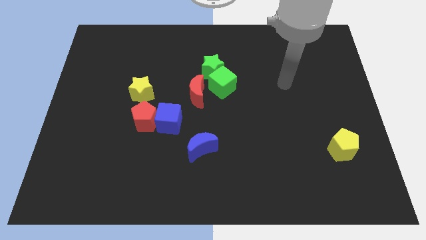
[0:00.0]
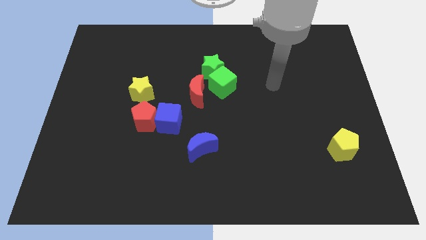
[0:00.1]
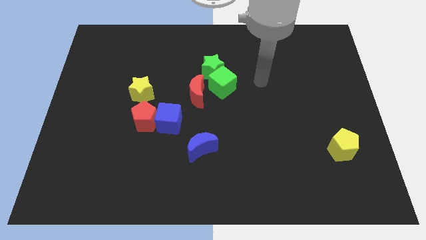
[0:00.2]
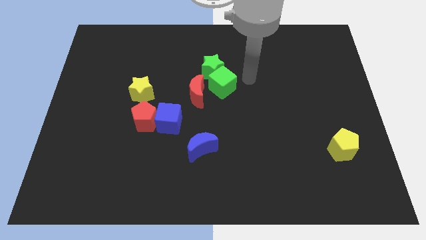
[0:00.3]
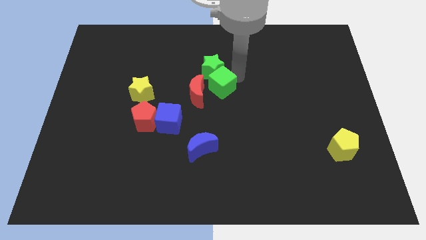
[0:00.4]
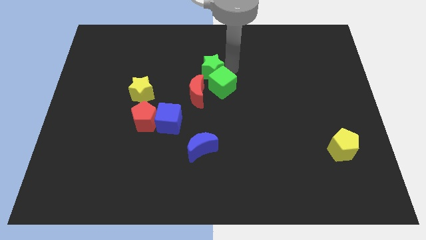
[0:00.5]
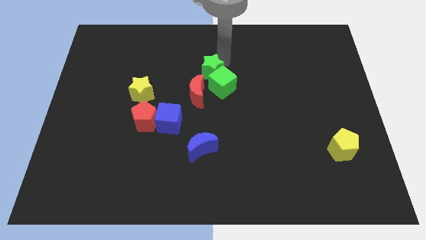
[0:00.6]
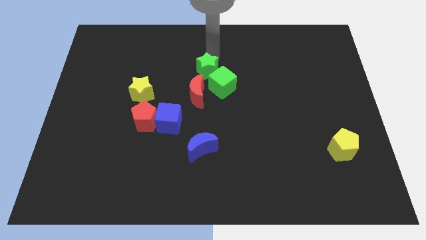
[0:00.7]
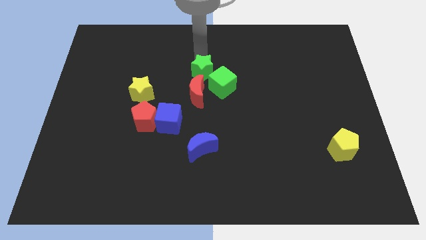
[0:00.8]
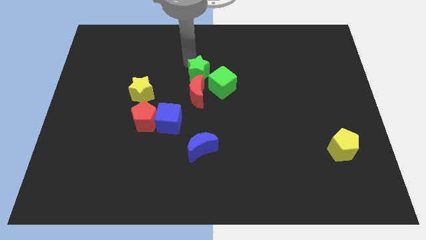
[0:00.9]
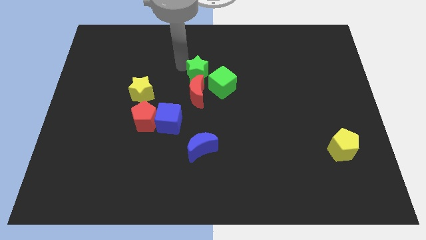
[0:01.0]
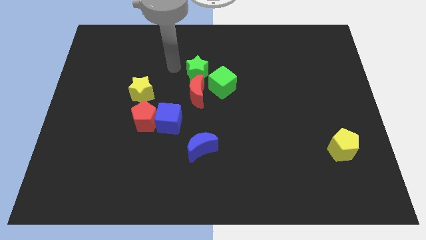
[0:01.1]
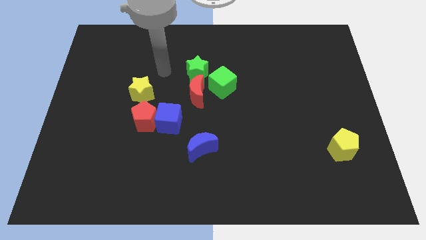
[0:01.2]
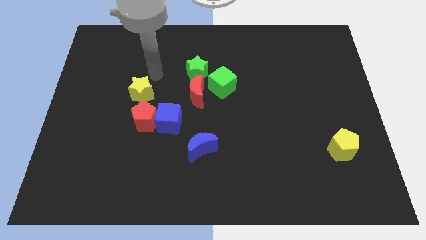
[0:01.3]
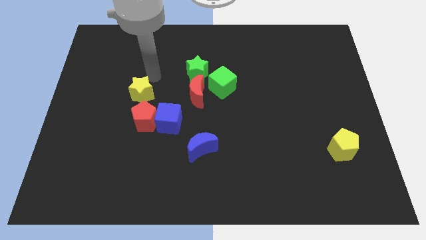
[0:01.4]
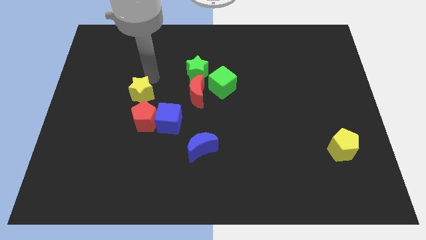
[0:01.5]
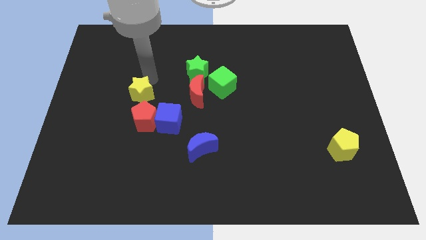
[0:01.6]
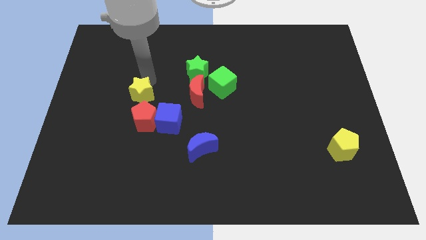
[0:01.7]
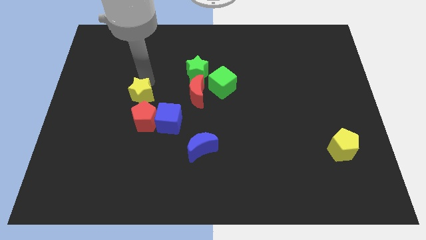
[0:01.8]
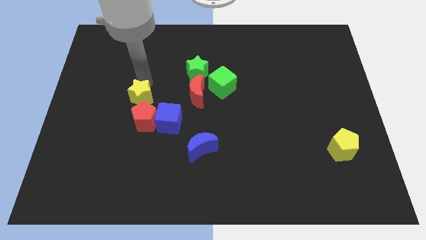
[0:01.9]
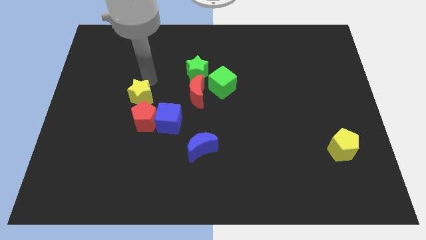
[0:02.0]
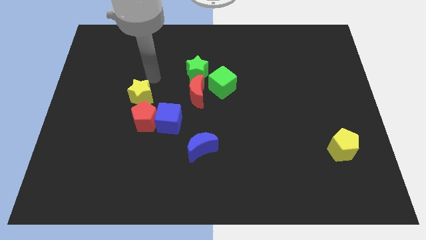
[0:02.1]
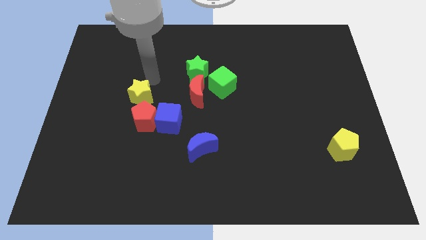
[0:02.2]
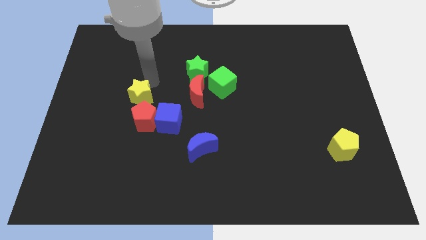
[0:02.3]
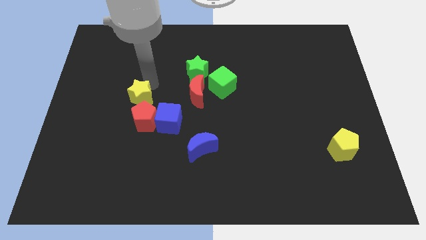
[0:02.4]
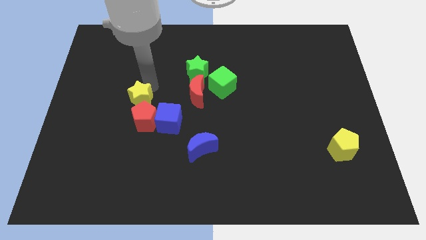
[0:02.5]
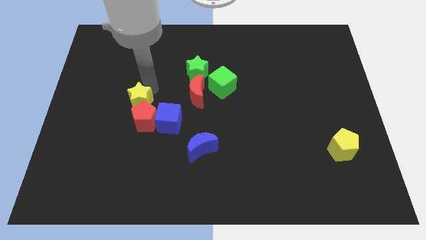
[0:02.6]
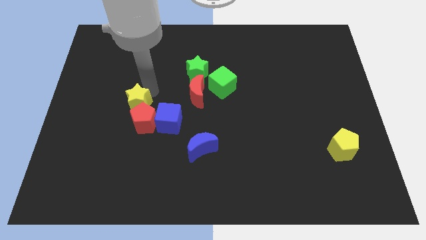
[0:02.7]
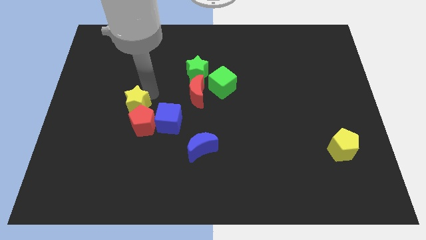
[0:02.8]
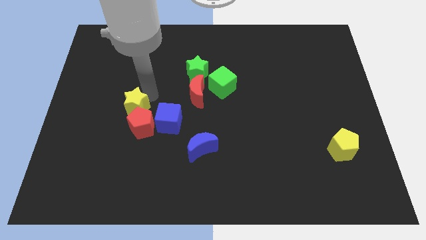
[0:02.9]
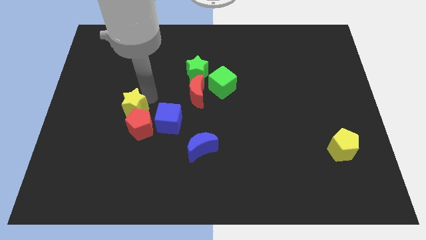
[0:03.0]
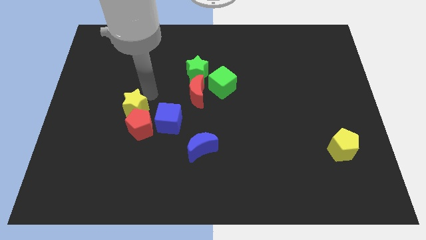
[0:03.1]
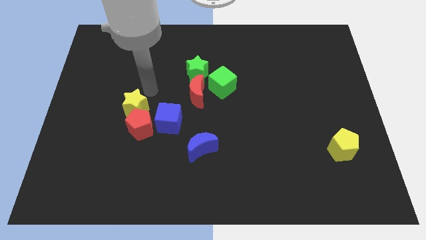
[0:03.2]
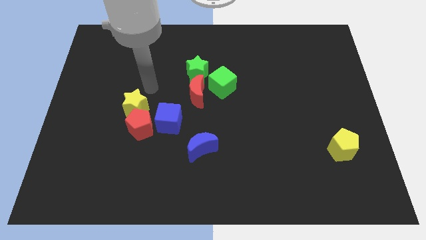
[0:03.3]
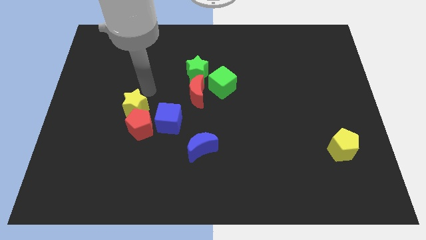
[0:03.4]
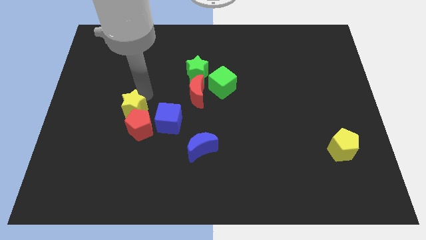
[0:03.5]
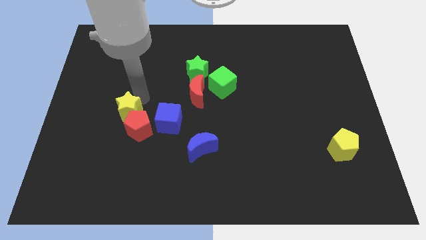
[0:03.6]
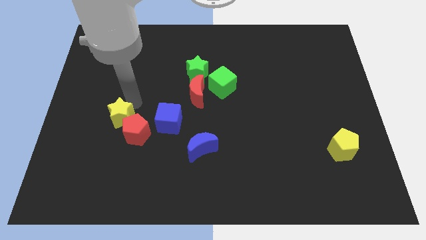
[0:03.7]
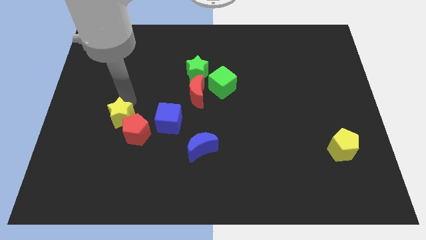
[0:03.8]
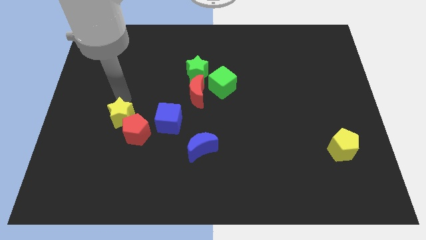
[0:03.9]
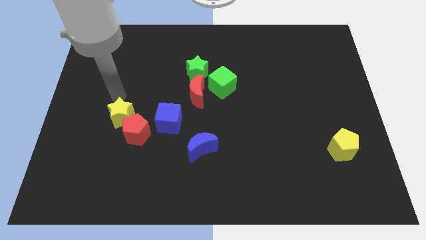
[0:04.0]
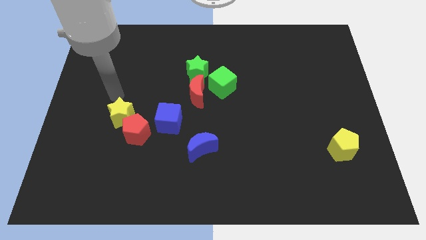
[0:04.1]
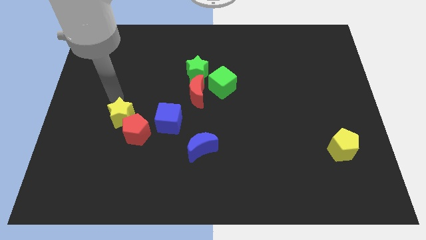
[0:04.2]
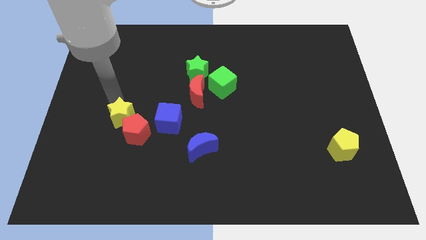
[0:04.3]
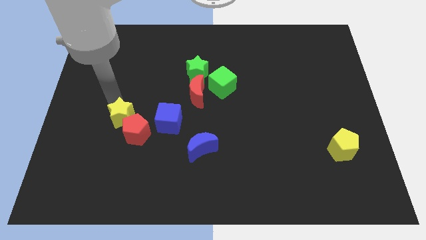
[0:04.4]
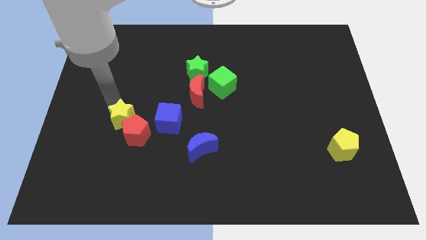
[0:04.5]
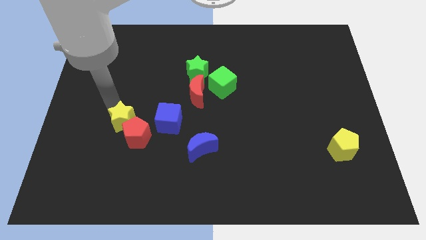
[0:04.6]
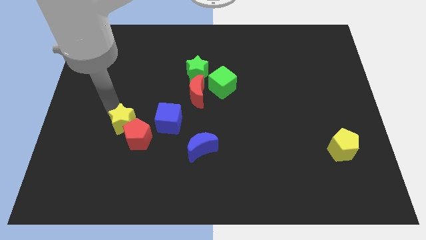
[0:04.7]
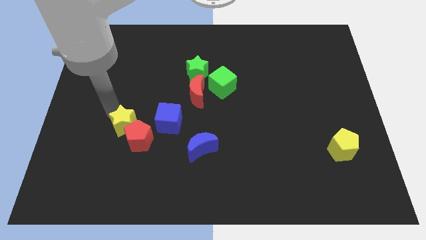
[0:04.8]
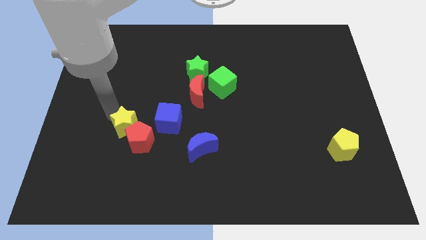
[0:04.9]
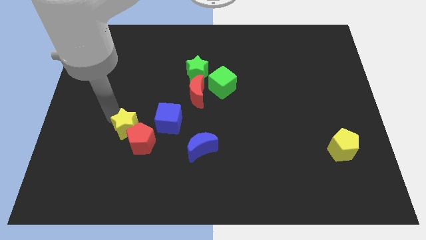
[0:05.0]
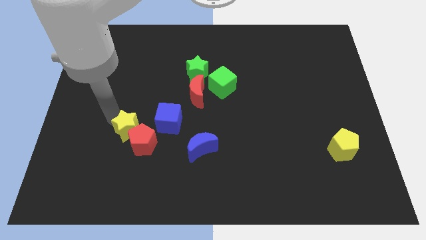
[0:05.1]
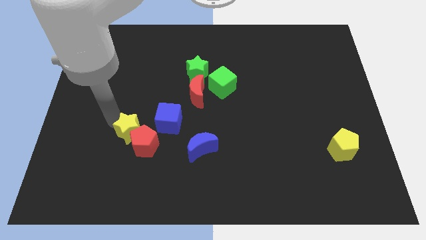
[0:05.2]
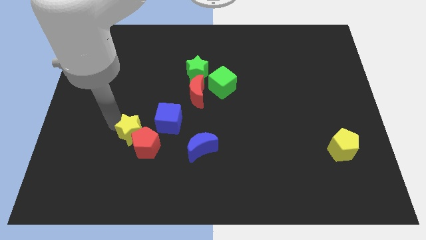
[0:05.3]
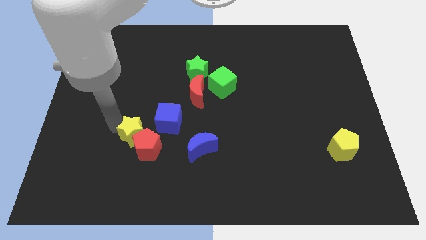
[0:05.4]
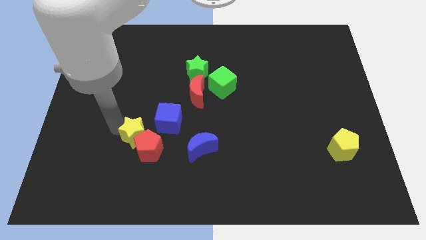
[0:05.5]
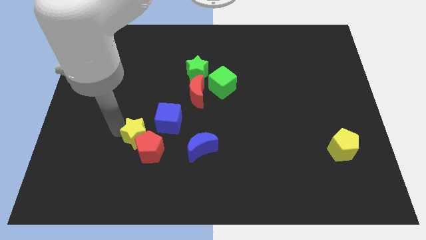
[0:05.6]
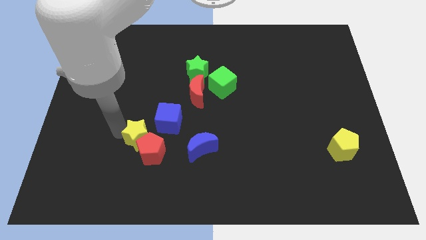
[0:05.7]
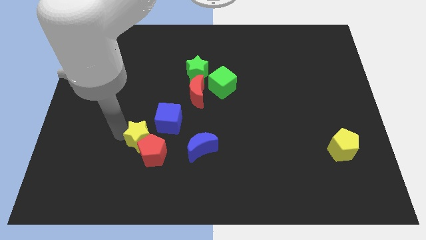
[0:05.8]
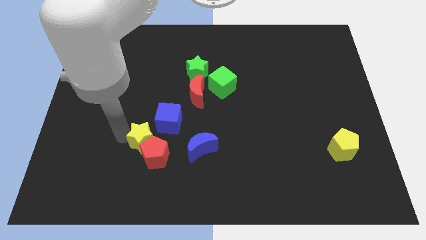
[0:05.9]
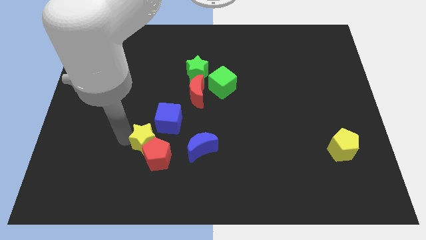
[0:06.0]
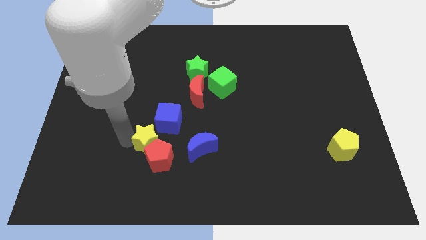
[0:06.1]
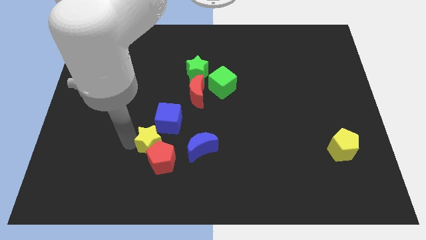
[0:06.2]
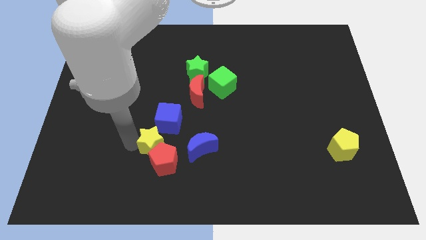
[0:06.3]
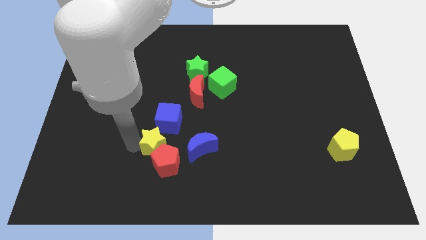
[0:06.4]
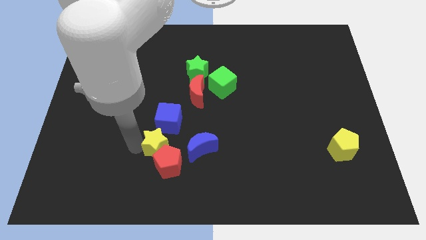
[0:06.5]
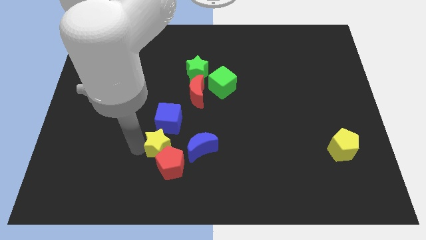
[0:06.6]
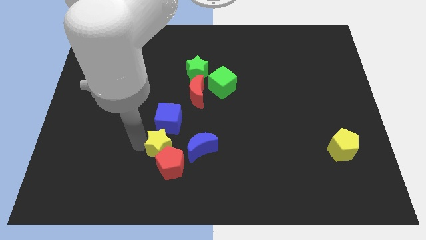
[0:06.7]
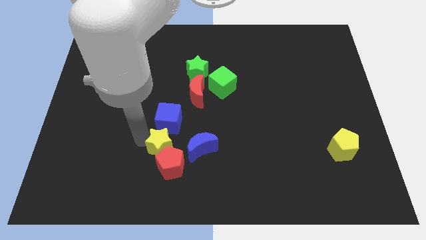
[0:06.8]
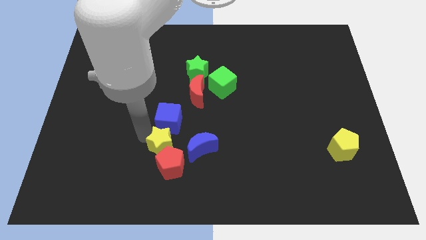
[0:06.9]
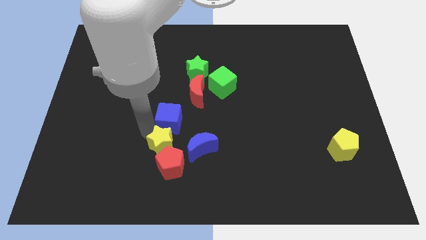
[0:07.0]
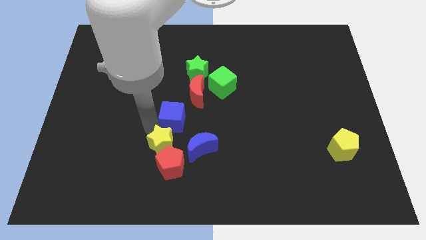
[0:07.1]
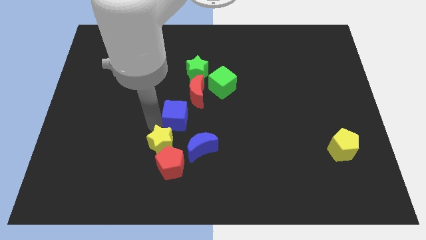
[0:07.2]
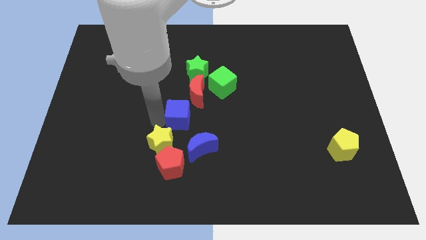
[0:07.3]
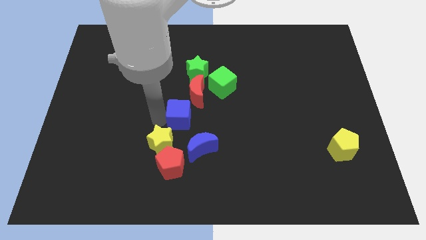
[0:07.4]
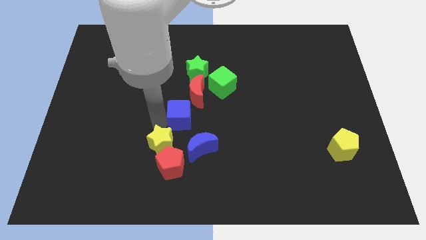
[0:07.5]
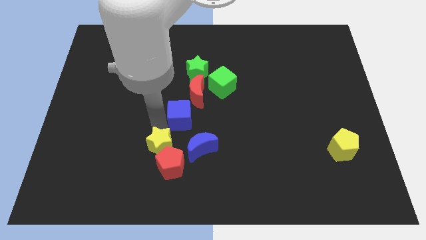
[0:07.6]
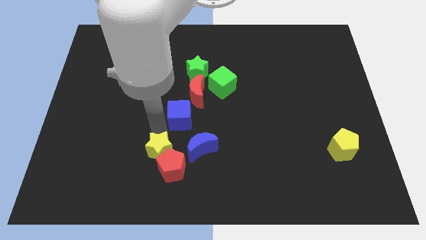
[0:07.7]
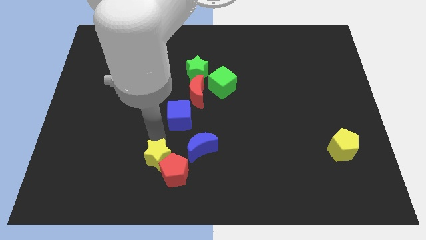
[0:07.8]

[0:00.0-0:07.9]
put the yellow star to the bottom left of the blue moon
